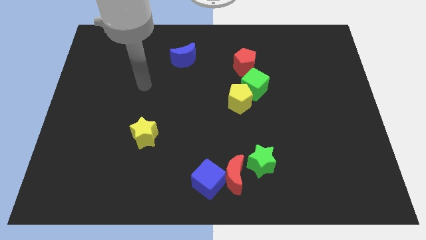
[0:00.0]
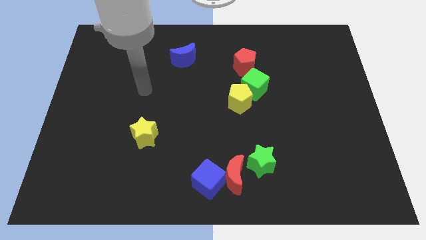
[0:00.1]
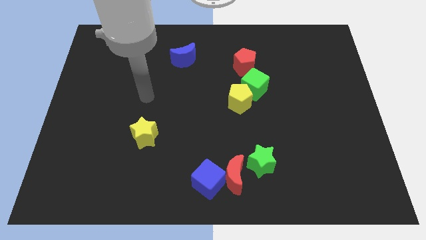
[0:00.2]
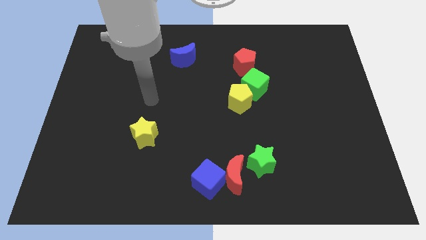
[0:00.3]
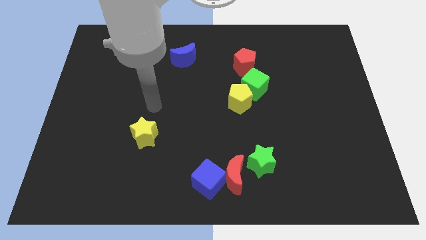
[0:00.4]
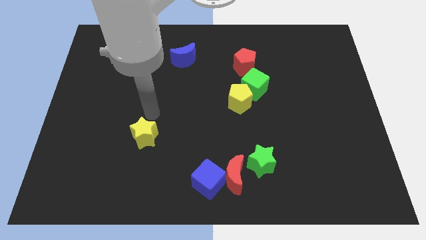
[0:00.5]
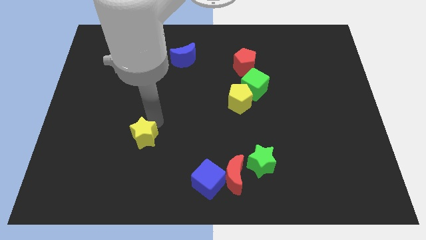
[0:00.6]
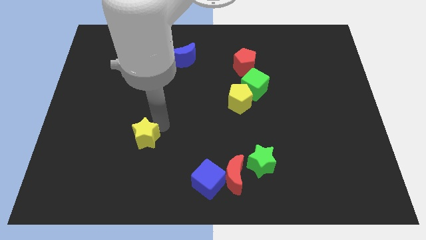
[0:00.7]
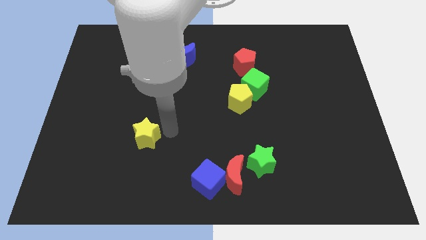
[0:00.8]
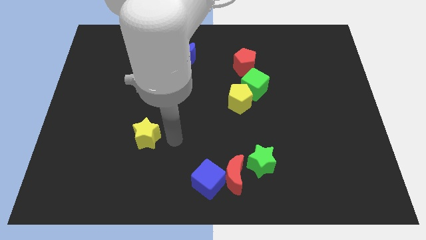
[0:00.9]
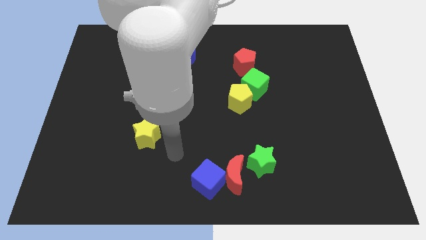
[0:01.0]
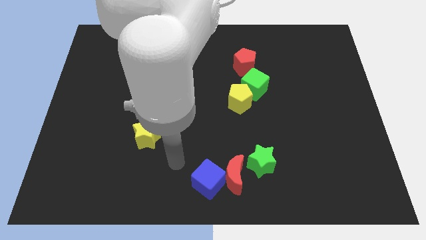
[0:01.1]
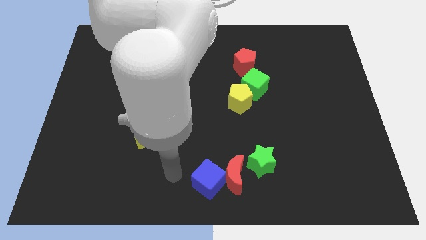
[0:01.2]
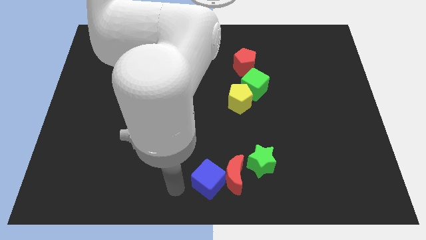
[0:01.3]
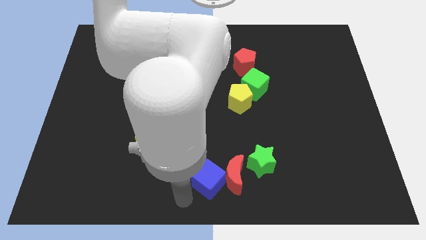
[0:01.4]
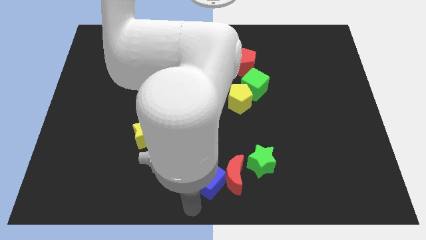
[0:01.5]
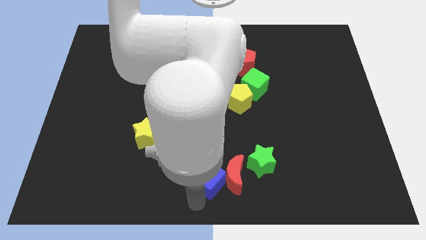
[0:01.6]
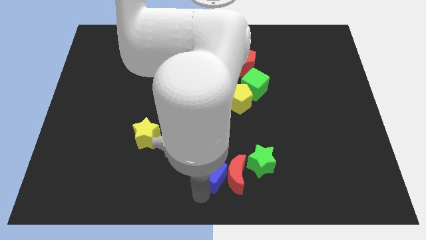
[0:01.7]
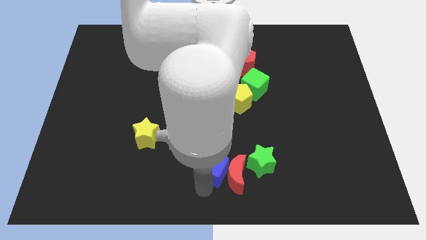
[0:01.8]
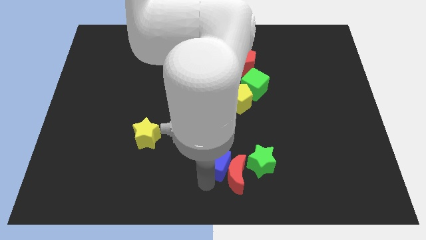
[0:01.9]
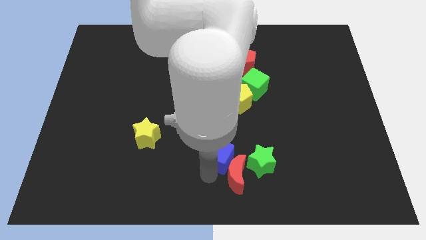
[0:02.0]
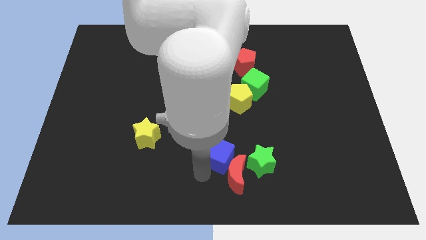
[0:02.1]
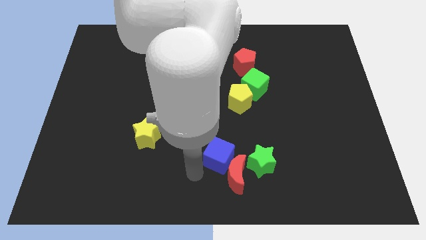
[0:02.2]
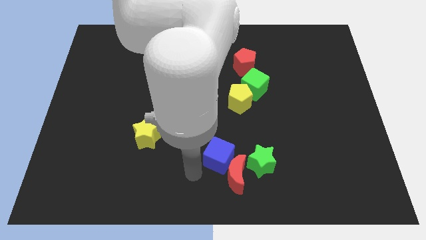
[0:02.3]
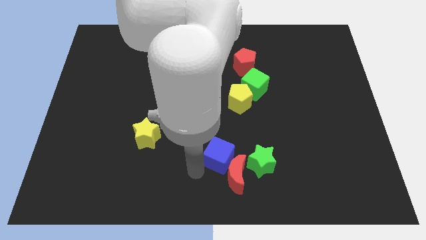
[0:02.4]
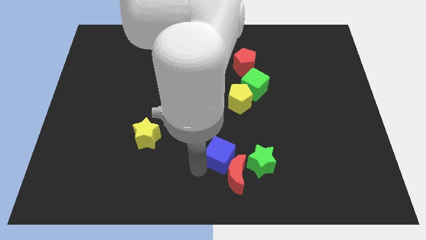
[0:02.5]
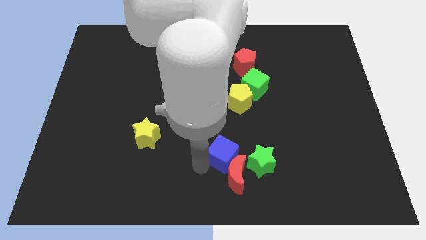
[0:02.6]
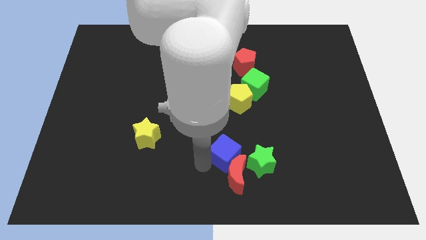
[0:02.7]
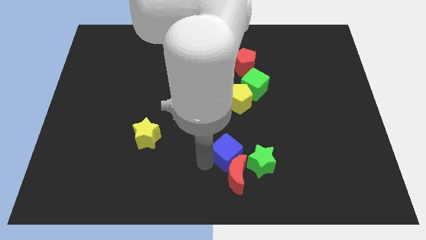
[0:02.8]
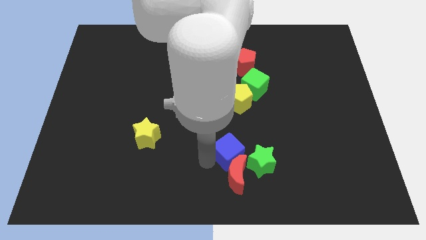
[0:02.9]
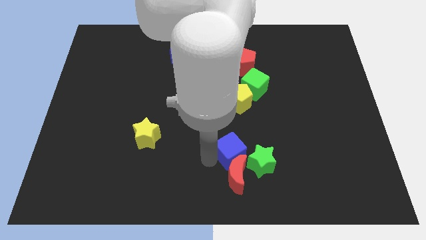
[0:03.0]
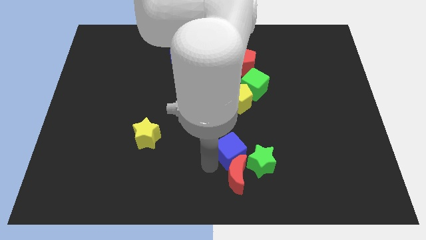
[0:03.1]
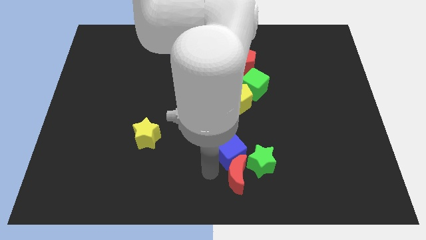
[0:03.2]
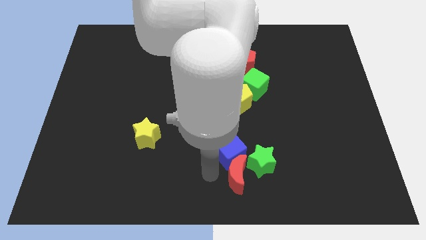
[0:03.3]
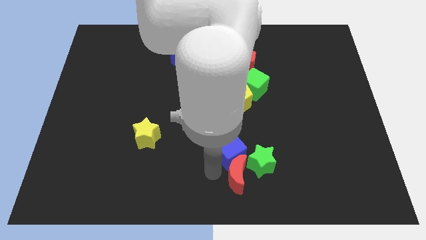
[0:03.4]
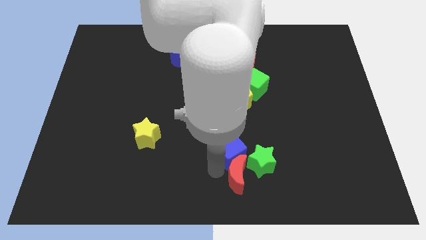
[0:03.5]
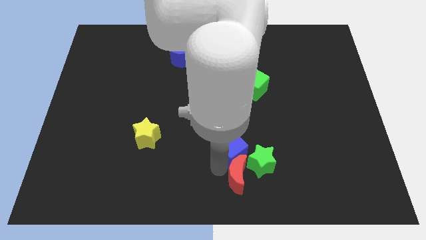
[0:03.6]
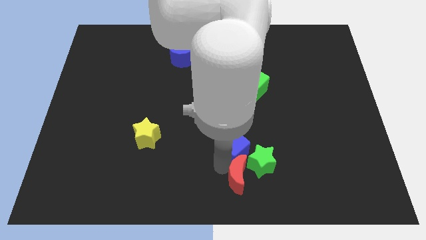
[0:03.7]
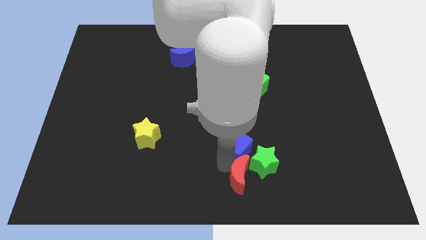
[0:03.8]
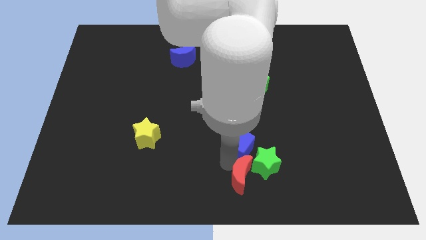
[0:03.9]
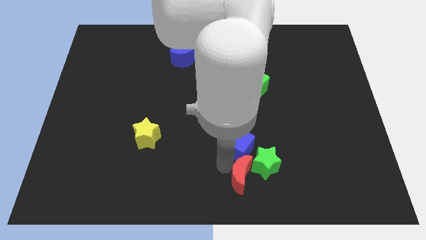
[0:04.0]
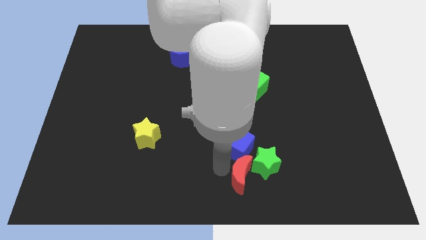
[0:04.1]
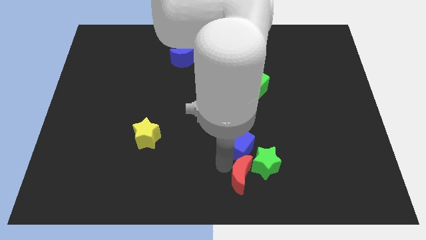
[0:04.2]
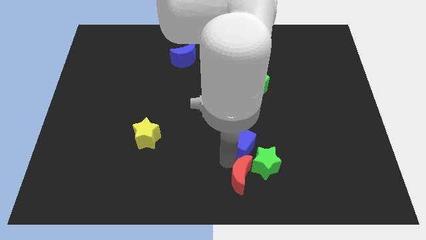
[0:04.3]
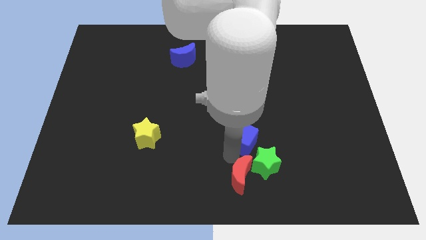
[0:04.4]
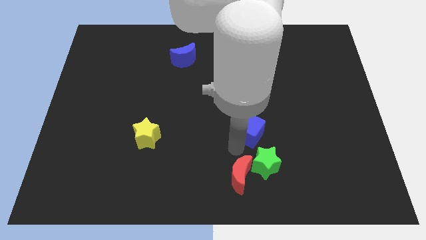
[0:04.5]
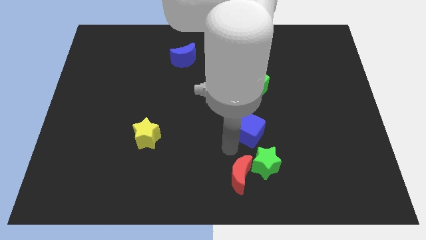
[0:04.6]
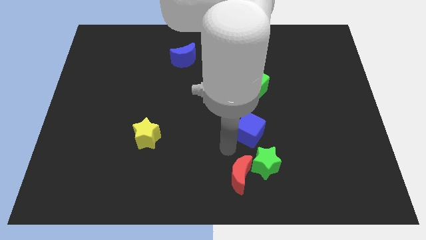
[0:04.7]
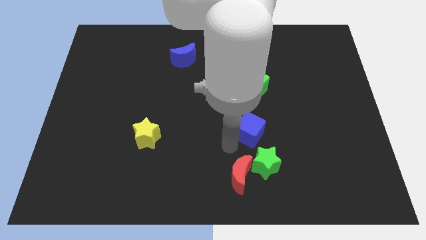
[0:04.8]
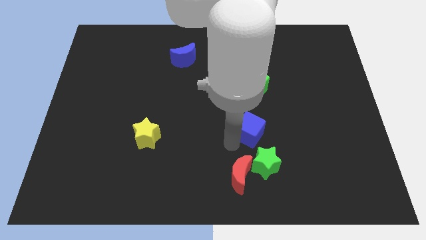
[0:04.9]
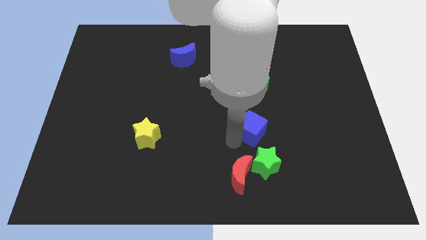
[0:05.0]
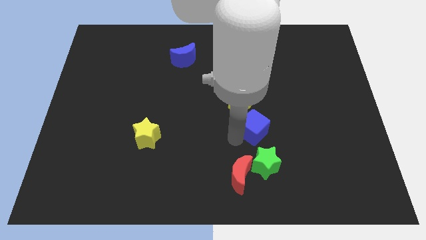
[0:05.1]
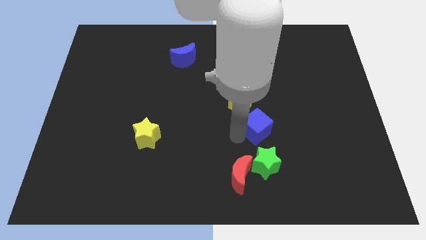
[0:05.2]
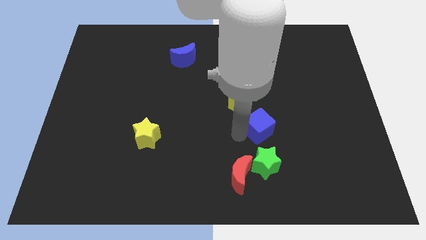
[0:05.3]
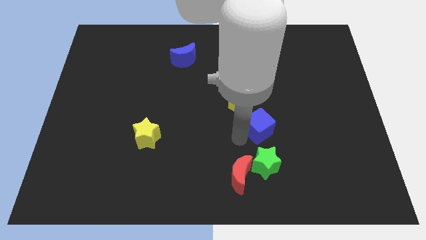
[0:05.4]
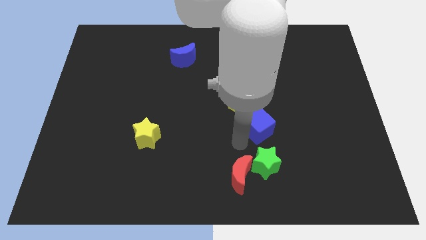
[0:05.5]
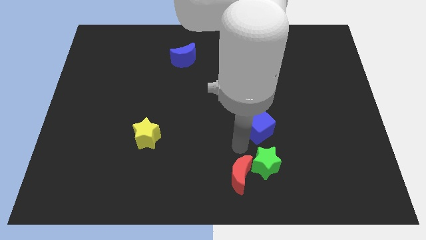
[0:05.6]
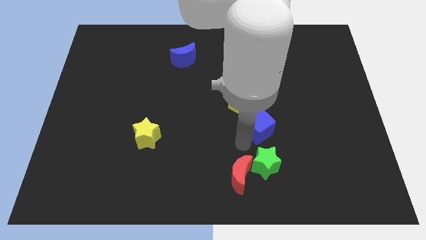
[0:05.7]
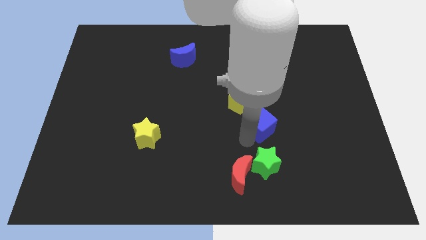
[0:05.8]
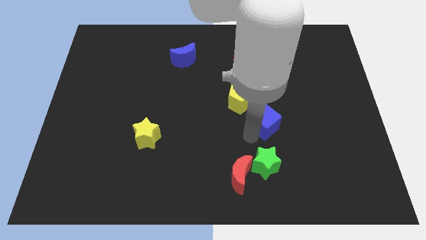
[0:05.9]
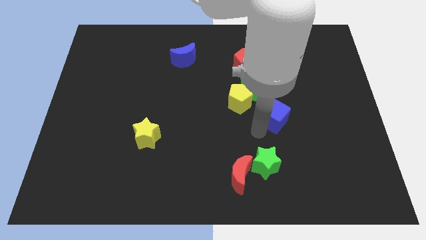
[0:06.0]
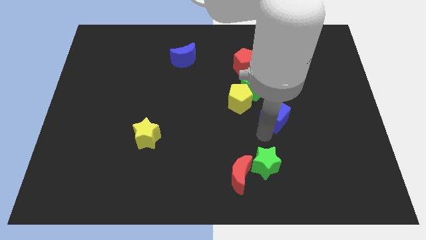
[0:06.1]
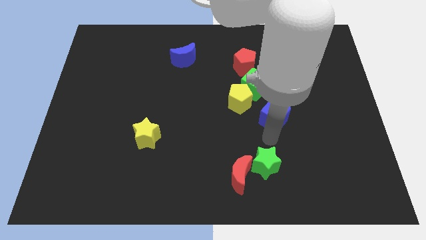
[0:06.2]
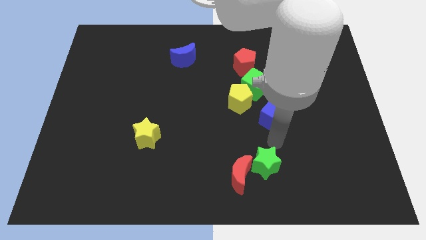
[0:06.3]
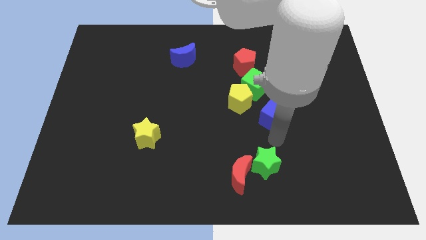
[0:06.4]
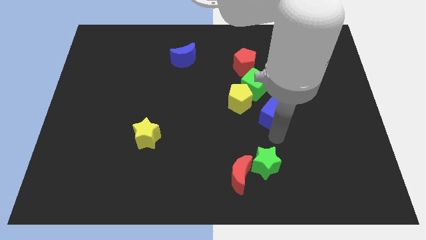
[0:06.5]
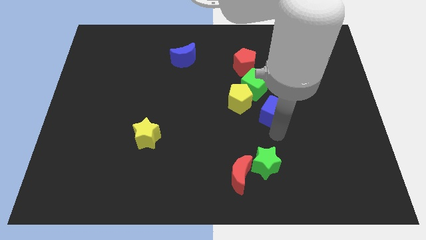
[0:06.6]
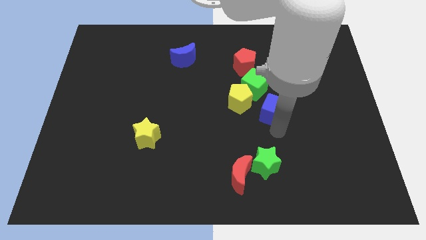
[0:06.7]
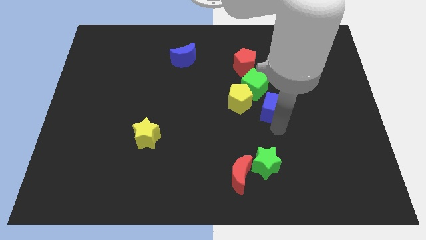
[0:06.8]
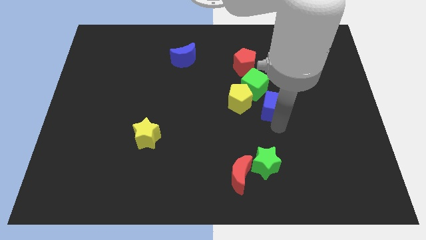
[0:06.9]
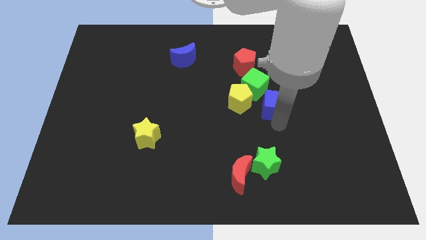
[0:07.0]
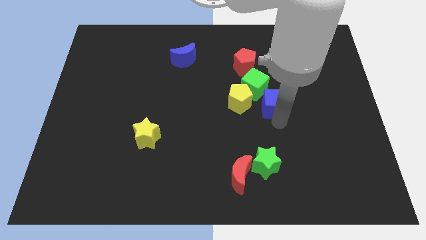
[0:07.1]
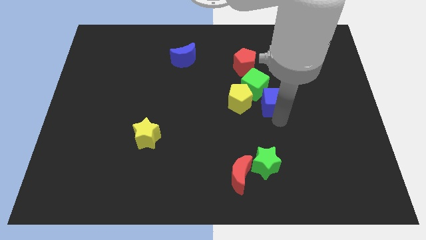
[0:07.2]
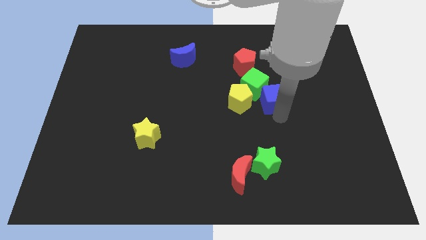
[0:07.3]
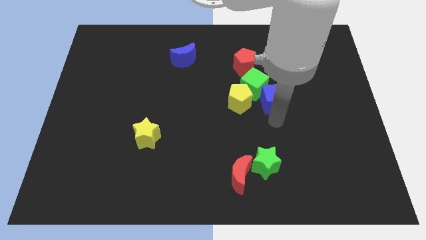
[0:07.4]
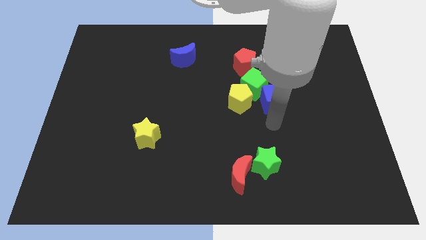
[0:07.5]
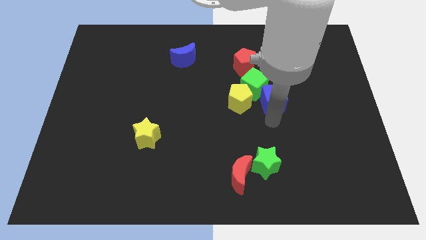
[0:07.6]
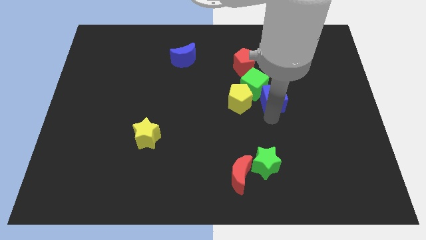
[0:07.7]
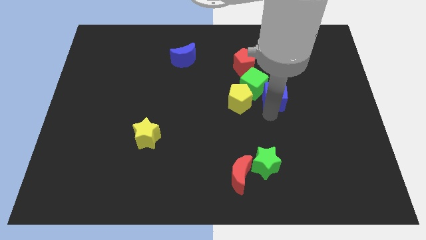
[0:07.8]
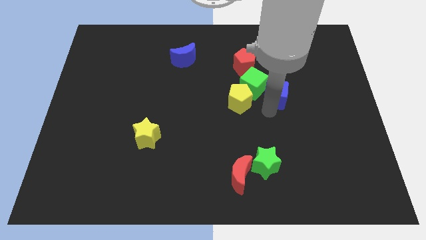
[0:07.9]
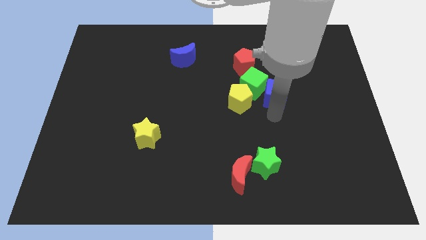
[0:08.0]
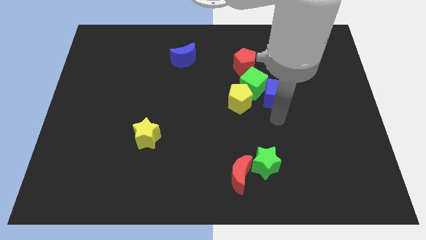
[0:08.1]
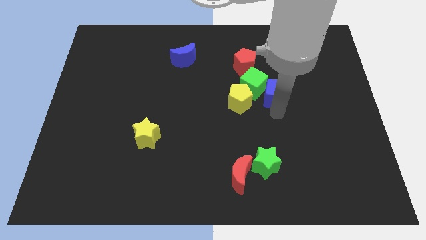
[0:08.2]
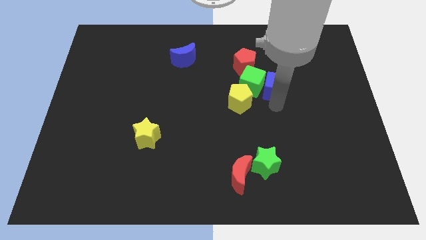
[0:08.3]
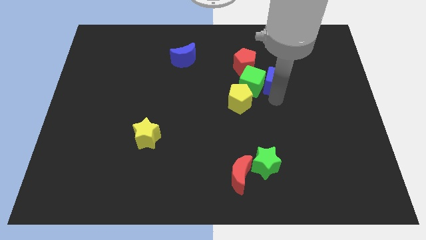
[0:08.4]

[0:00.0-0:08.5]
move the blue cube to the top right of the green cube
